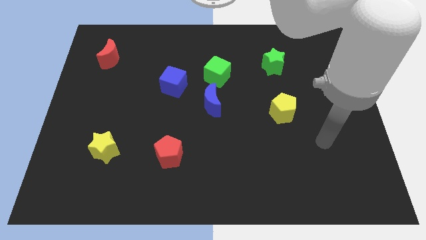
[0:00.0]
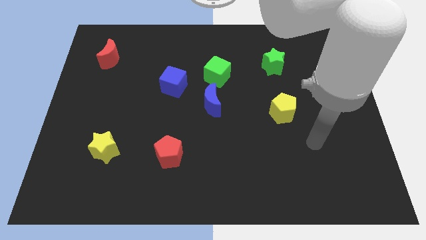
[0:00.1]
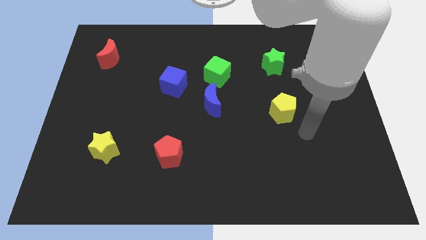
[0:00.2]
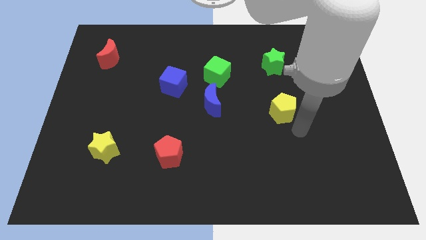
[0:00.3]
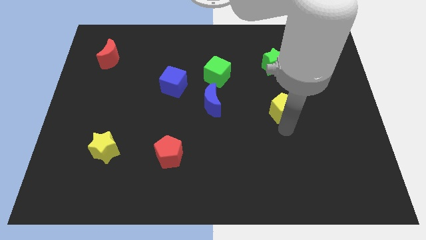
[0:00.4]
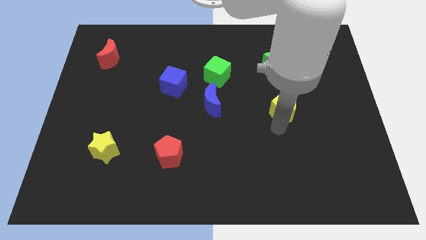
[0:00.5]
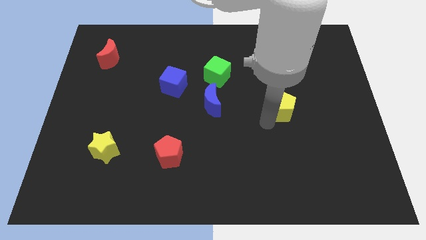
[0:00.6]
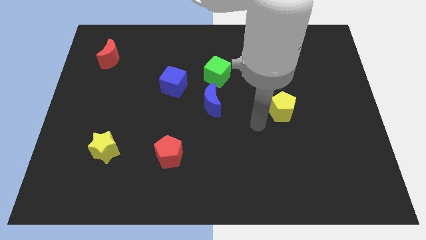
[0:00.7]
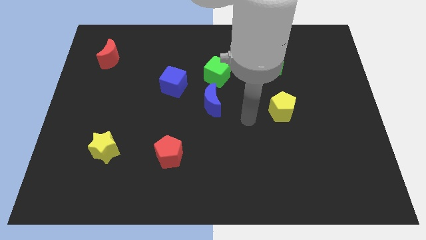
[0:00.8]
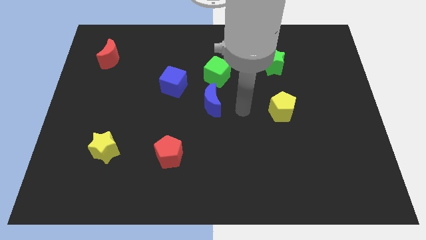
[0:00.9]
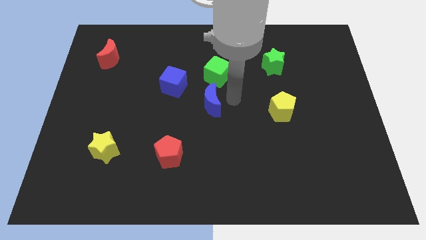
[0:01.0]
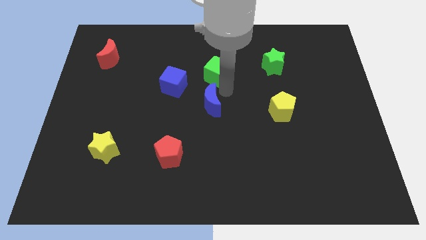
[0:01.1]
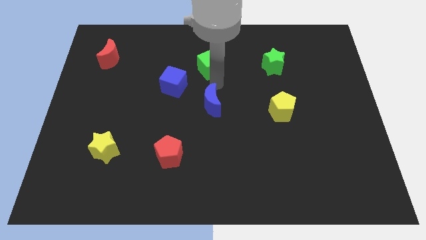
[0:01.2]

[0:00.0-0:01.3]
separate the blue moon from the green cube

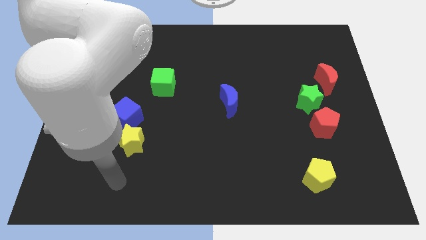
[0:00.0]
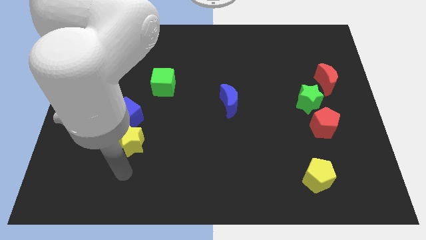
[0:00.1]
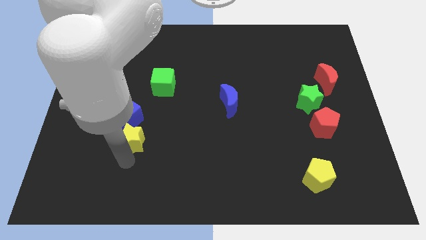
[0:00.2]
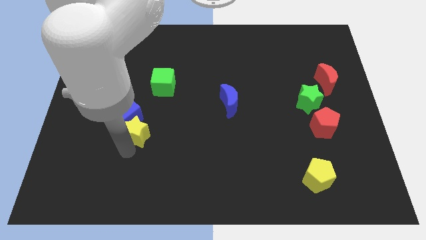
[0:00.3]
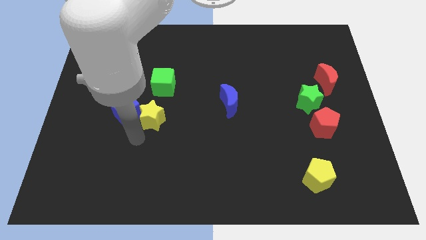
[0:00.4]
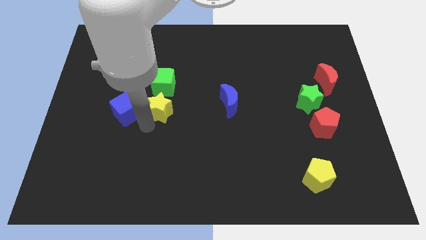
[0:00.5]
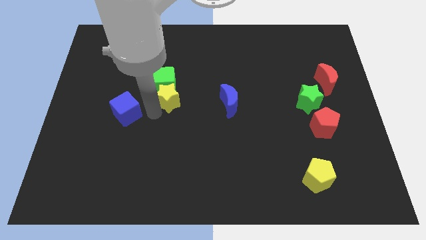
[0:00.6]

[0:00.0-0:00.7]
move the blue cube away from the yellow star

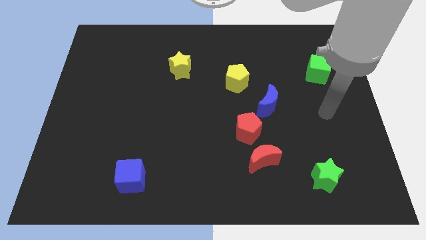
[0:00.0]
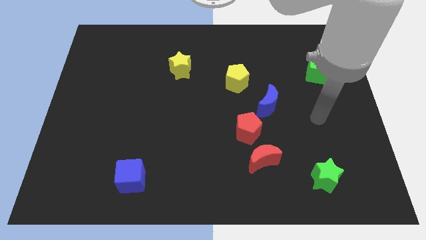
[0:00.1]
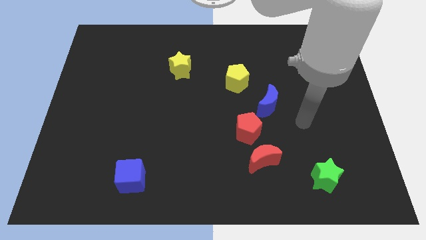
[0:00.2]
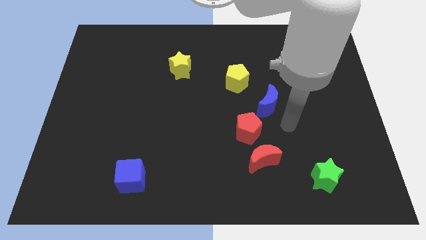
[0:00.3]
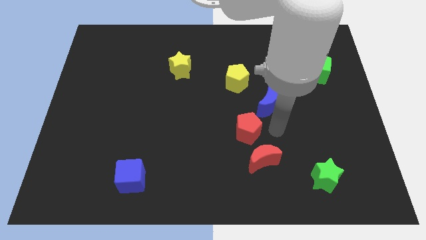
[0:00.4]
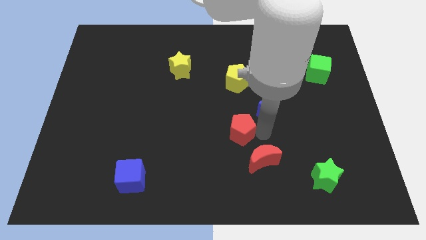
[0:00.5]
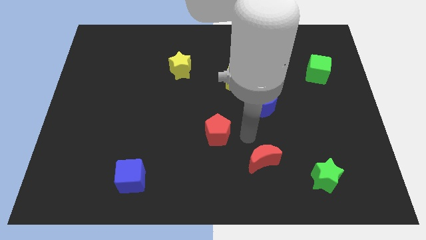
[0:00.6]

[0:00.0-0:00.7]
move the red moon away from the red pentagon

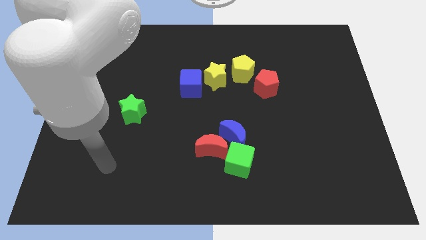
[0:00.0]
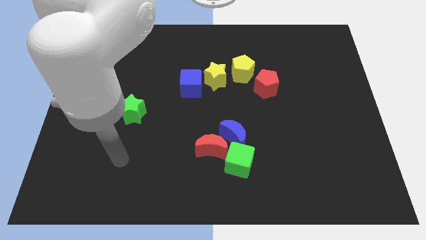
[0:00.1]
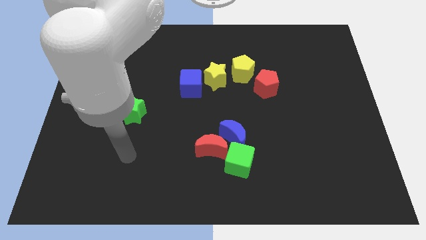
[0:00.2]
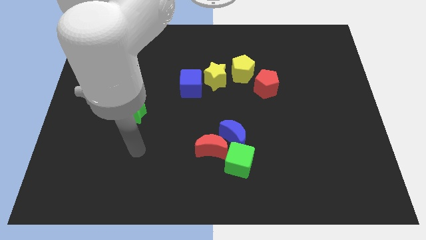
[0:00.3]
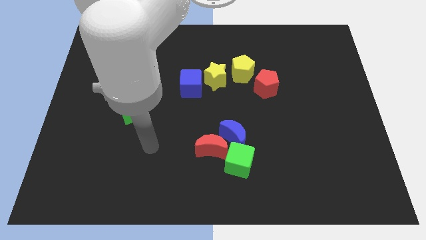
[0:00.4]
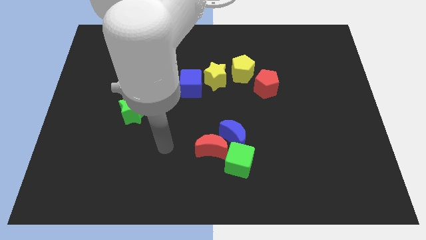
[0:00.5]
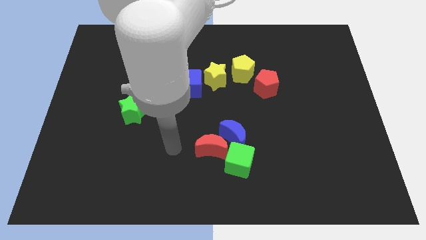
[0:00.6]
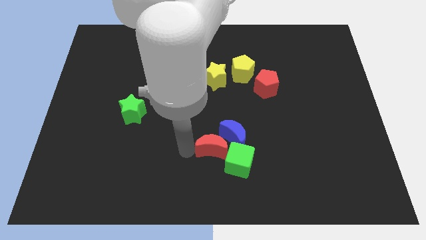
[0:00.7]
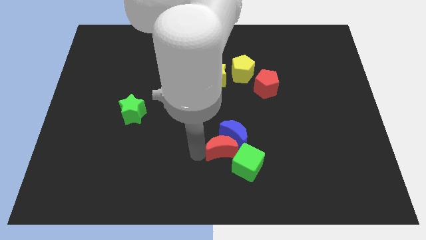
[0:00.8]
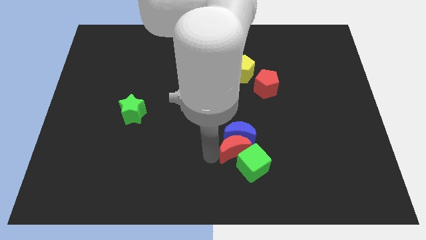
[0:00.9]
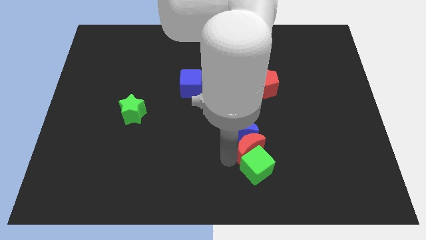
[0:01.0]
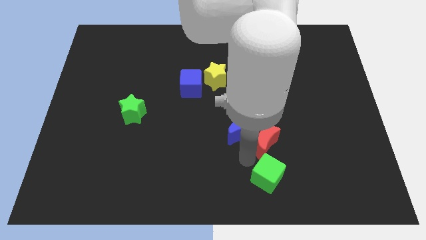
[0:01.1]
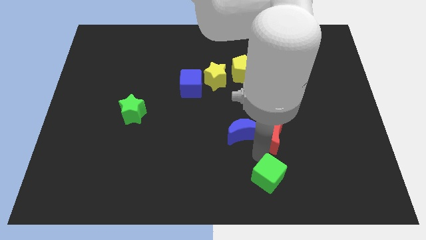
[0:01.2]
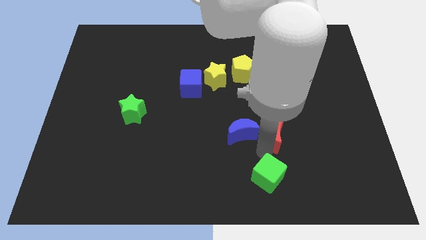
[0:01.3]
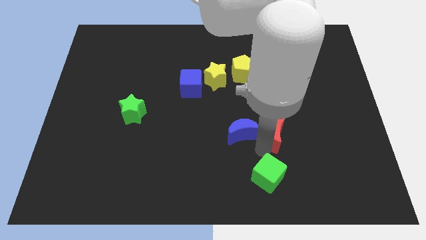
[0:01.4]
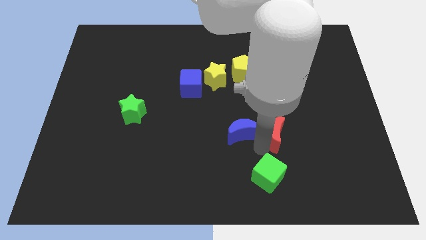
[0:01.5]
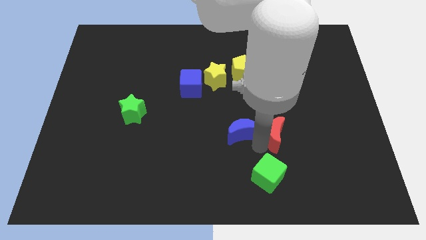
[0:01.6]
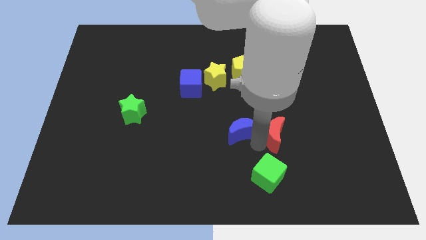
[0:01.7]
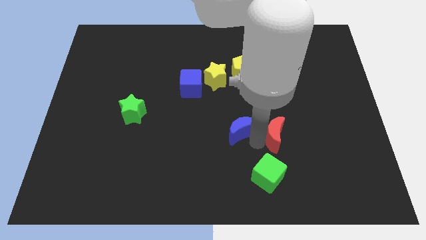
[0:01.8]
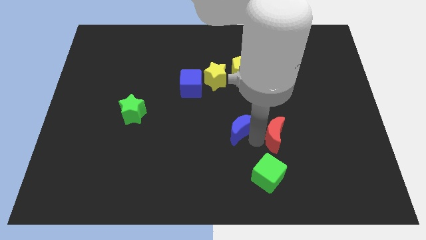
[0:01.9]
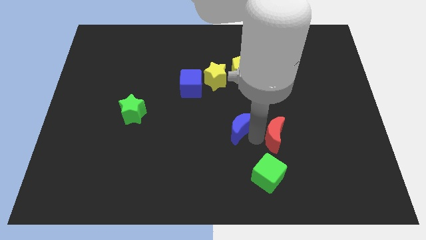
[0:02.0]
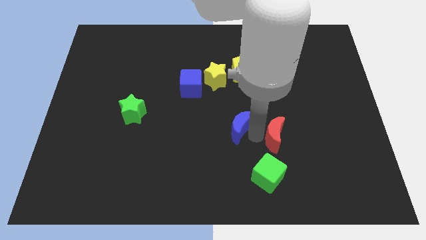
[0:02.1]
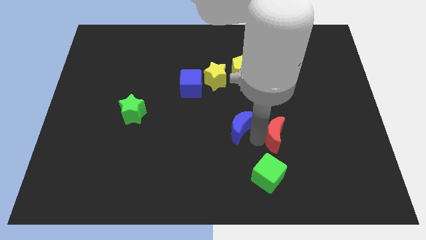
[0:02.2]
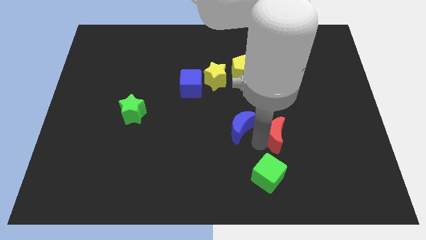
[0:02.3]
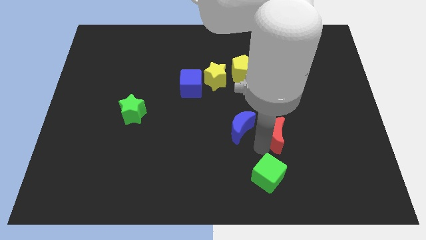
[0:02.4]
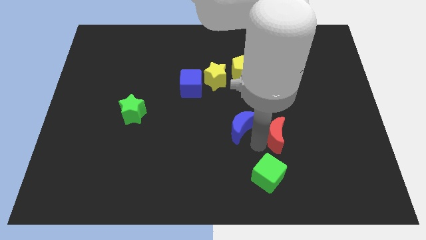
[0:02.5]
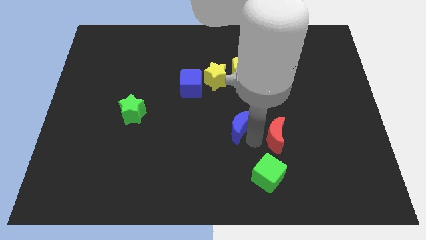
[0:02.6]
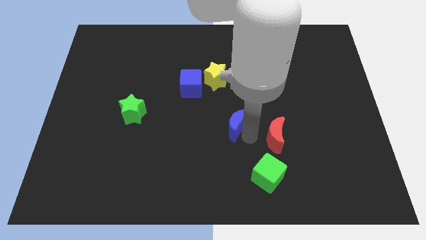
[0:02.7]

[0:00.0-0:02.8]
separate the blue moon from the red moon and green cube

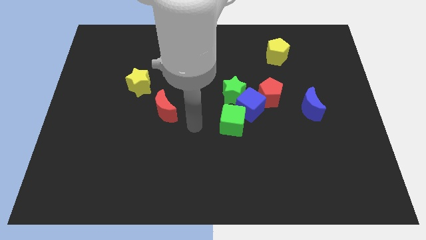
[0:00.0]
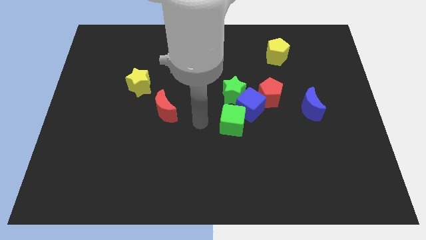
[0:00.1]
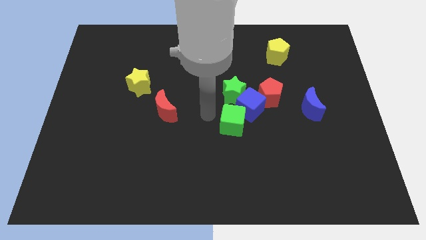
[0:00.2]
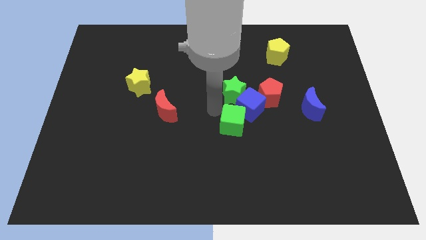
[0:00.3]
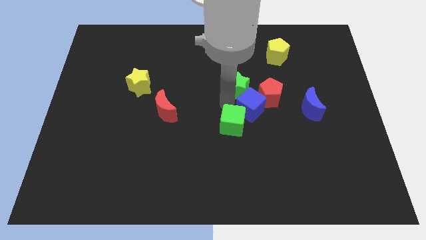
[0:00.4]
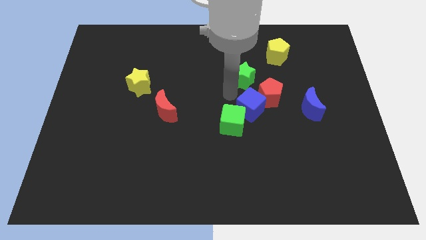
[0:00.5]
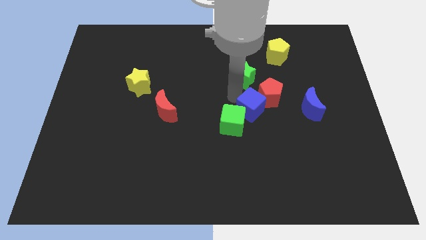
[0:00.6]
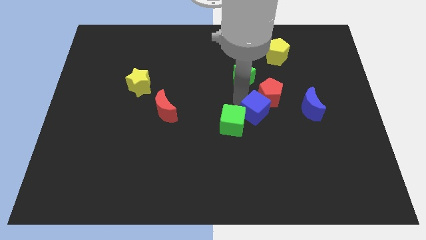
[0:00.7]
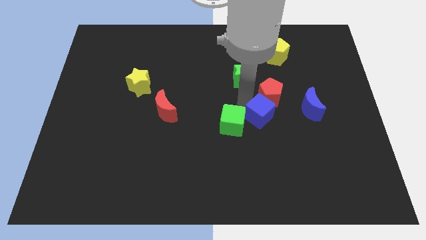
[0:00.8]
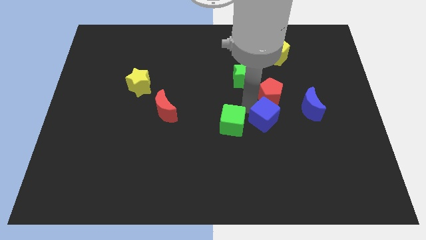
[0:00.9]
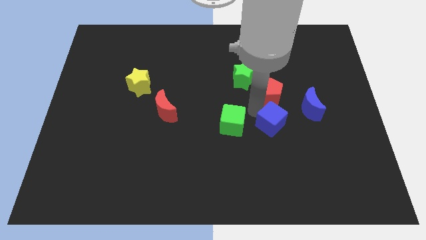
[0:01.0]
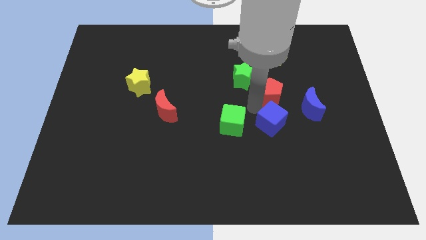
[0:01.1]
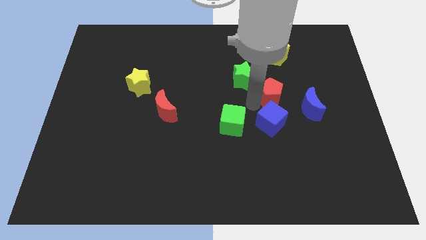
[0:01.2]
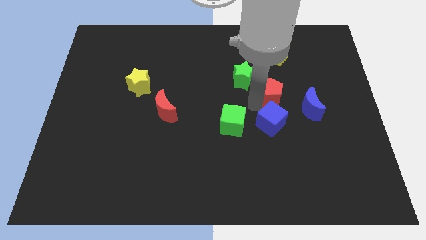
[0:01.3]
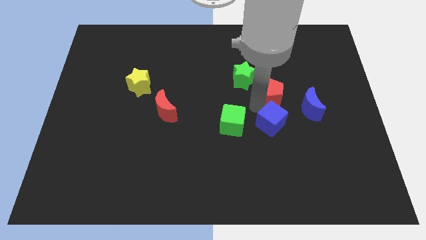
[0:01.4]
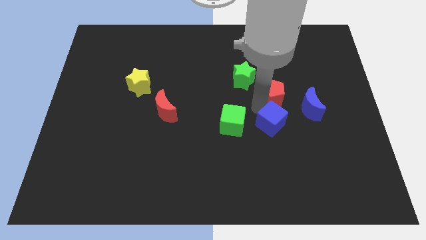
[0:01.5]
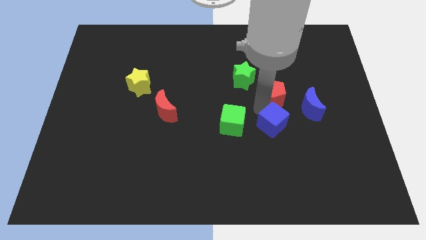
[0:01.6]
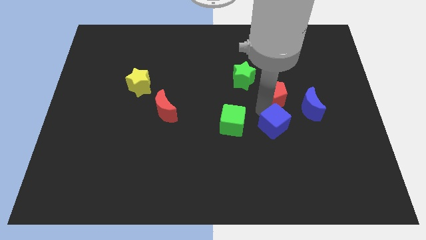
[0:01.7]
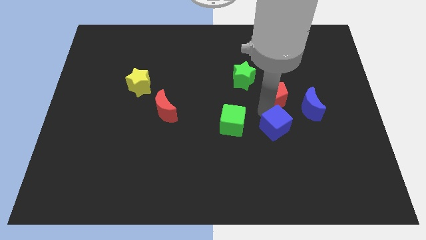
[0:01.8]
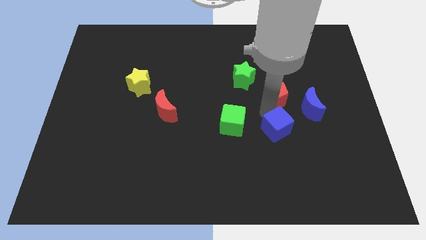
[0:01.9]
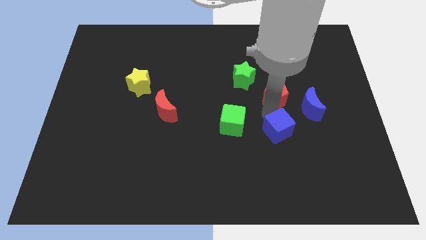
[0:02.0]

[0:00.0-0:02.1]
separate the blue cube from the green star, red pentagon, and green cube

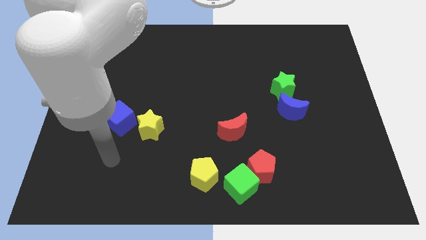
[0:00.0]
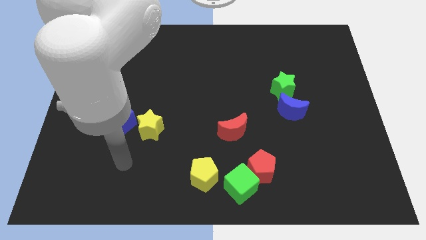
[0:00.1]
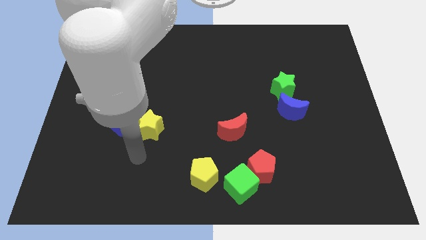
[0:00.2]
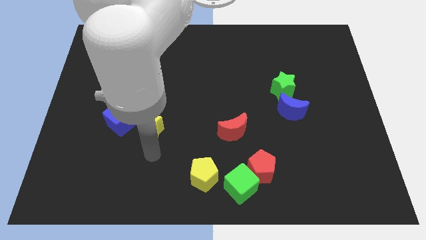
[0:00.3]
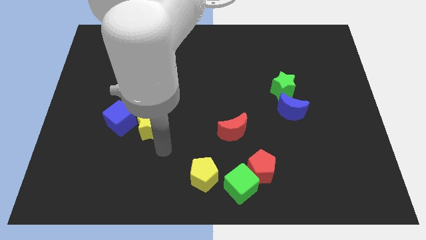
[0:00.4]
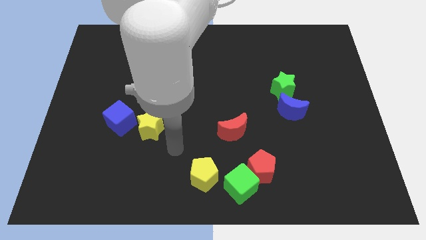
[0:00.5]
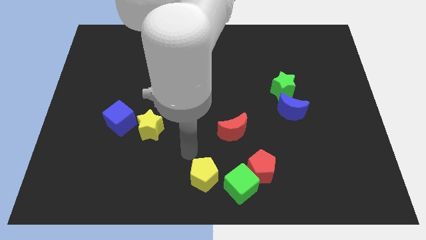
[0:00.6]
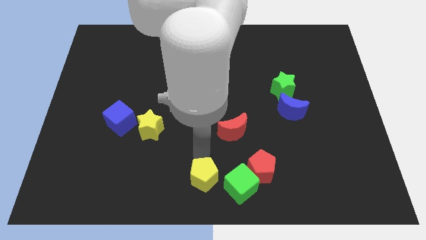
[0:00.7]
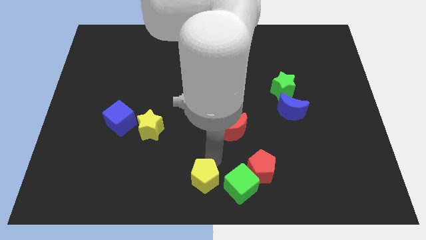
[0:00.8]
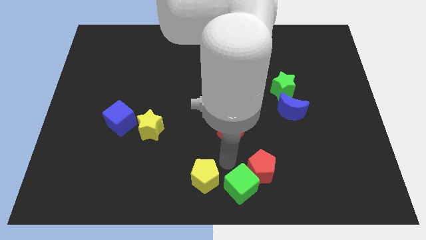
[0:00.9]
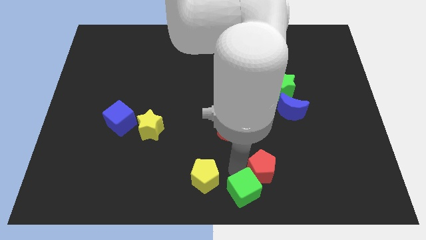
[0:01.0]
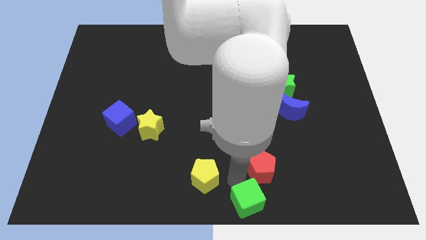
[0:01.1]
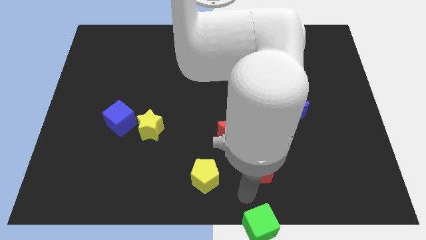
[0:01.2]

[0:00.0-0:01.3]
pull the red pentagon apart from the green cube

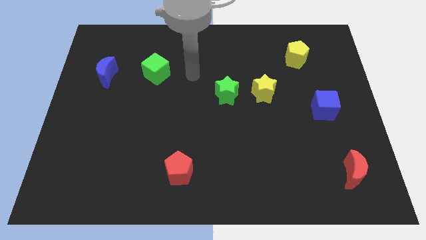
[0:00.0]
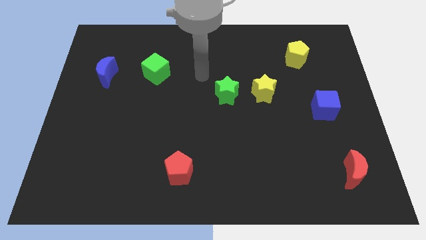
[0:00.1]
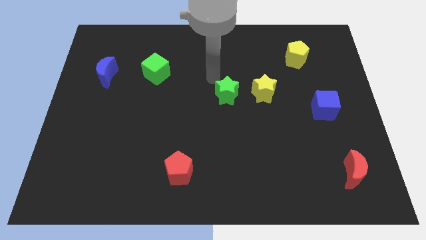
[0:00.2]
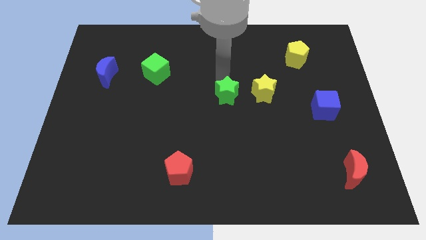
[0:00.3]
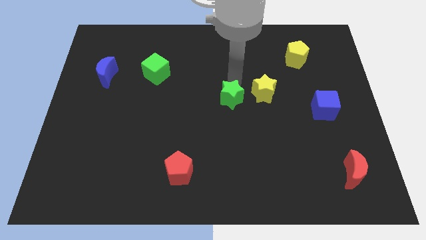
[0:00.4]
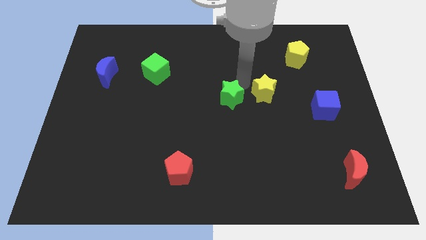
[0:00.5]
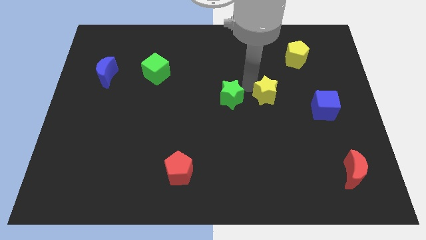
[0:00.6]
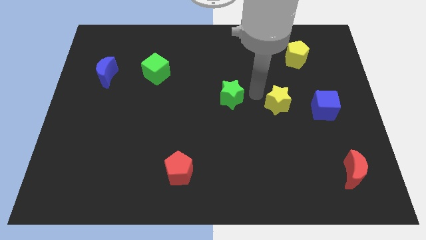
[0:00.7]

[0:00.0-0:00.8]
separate the green star from the yellow star
